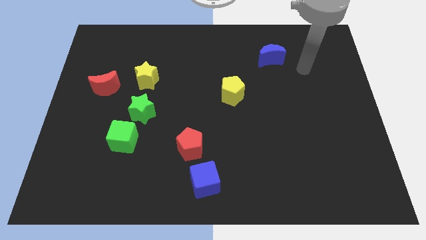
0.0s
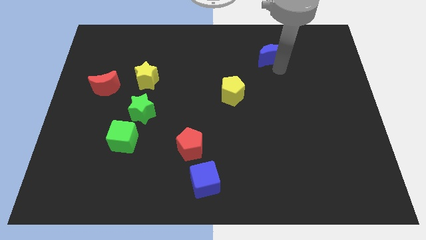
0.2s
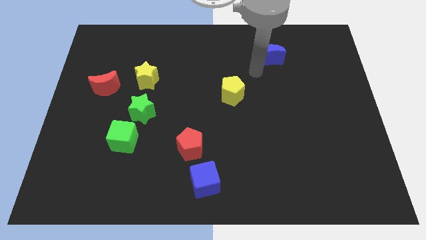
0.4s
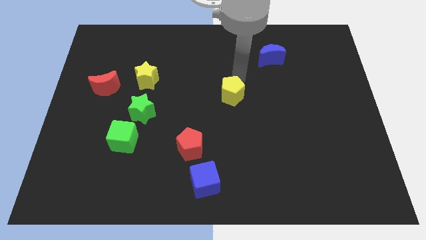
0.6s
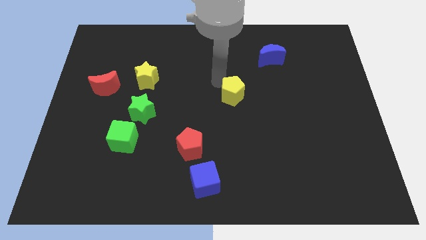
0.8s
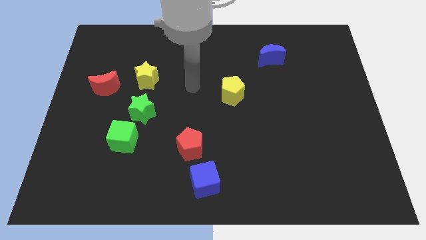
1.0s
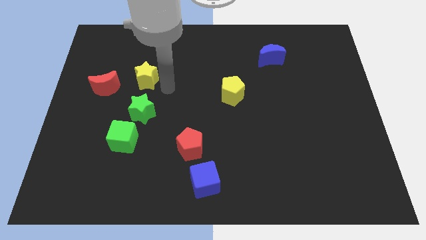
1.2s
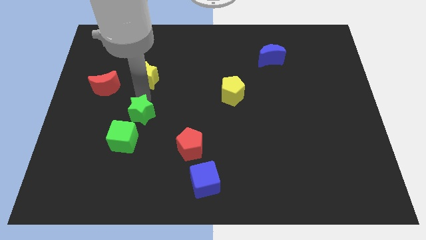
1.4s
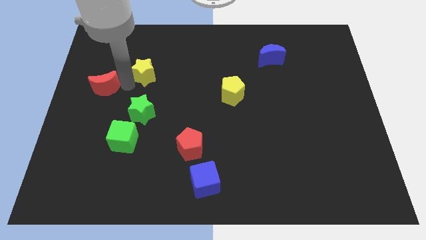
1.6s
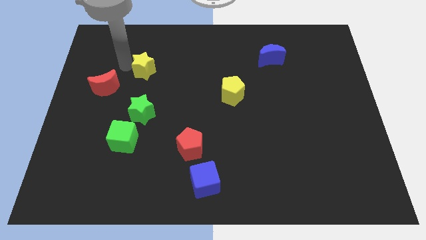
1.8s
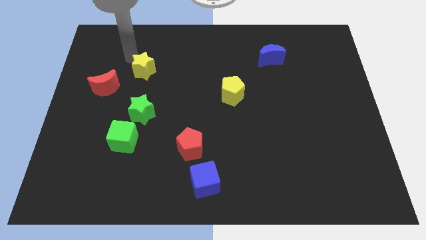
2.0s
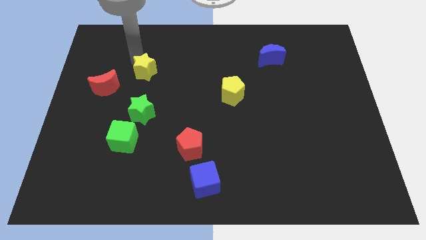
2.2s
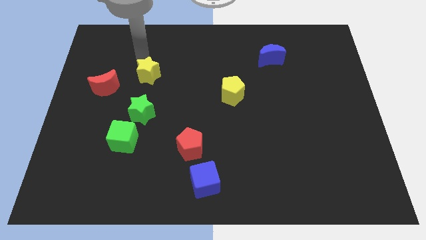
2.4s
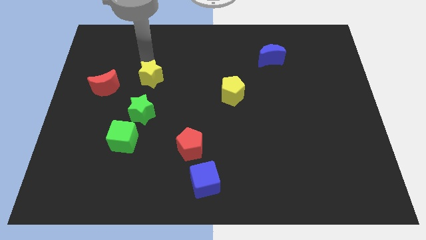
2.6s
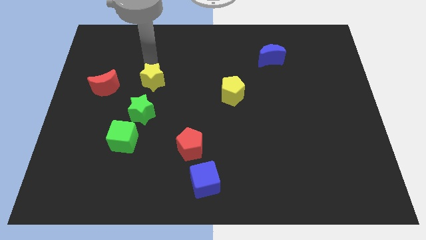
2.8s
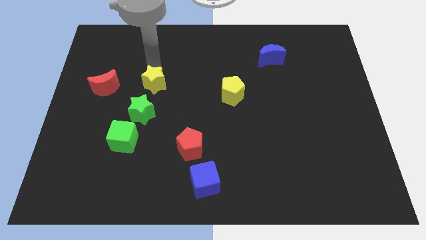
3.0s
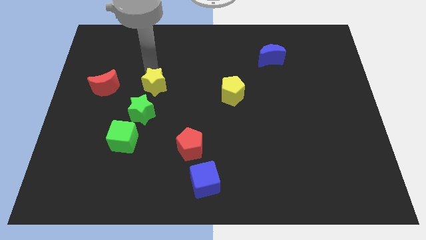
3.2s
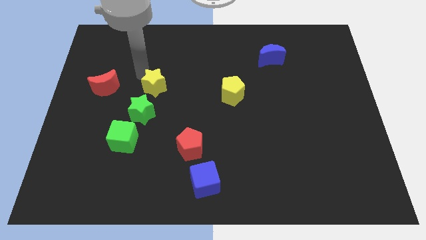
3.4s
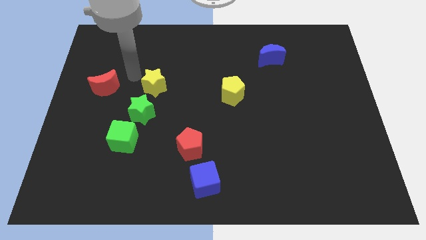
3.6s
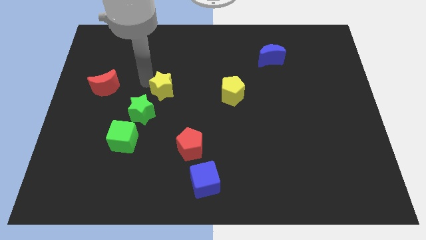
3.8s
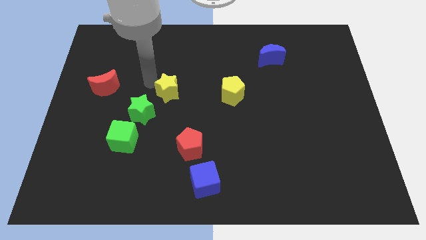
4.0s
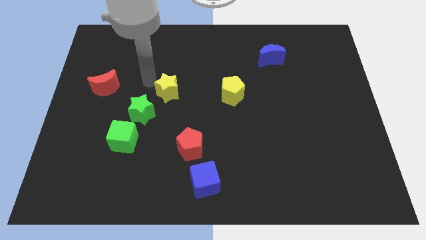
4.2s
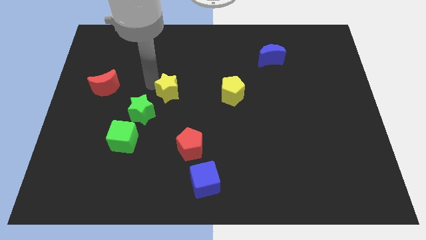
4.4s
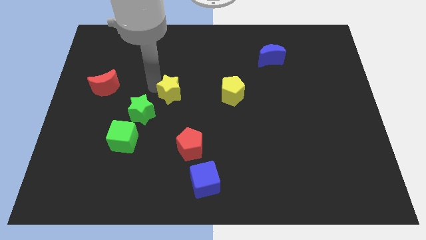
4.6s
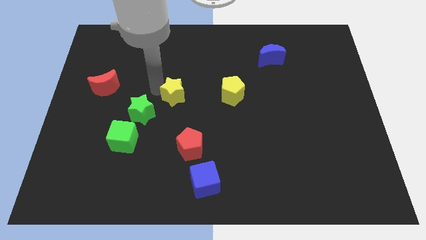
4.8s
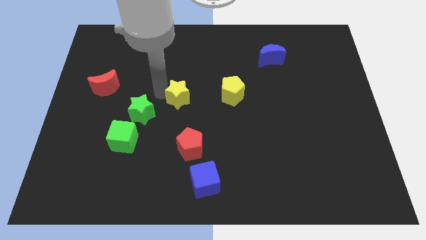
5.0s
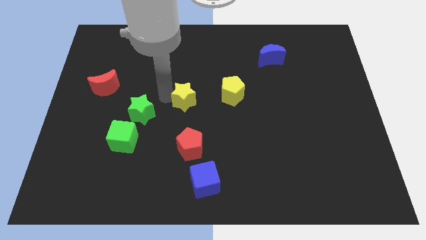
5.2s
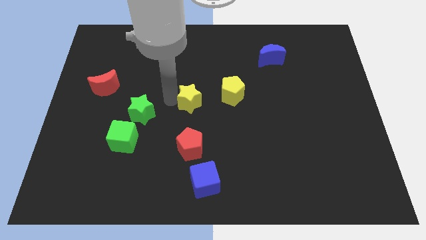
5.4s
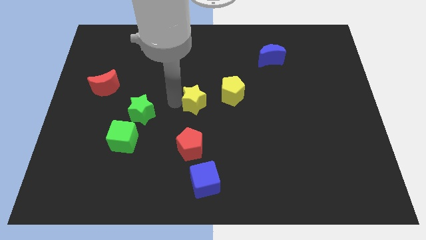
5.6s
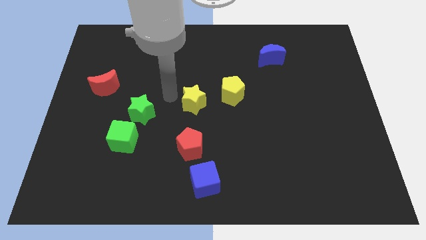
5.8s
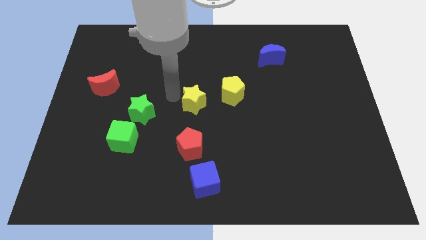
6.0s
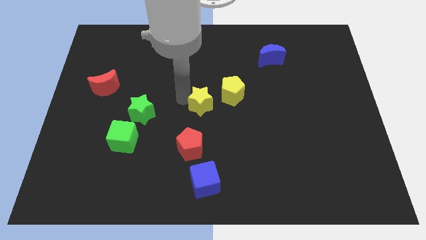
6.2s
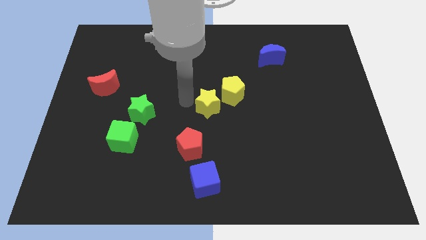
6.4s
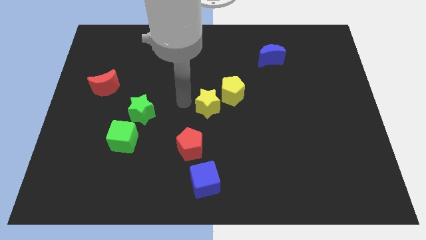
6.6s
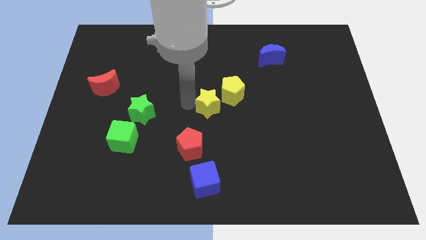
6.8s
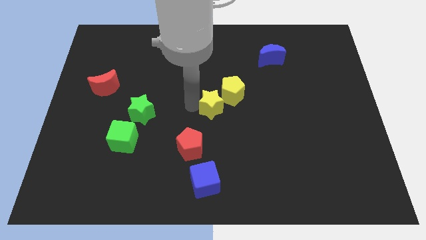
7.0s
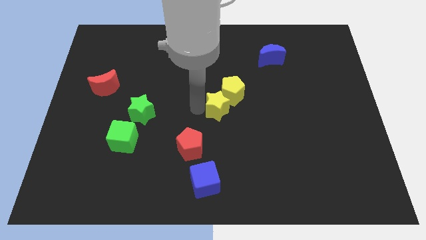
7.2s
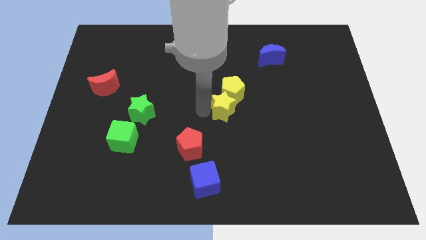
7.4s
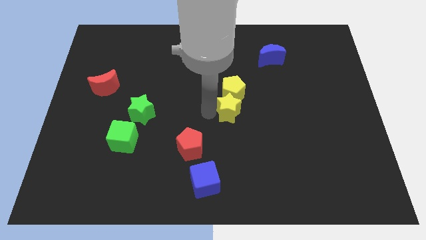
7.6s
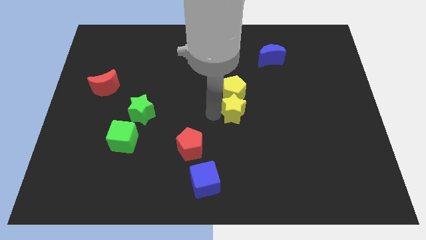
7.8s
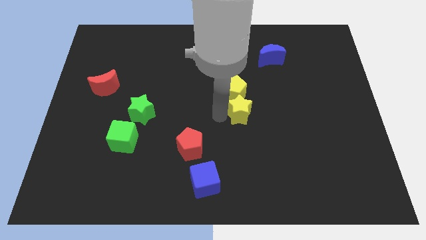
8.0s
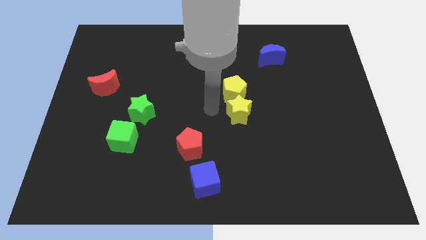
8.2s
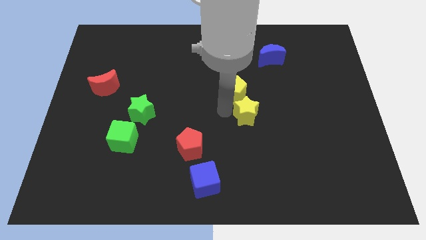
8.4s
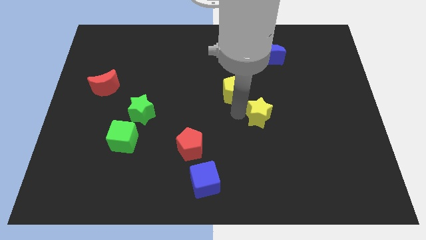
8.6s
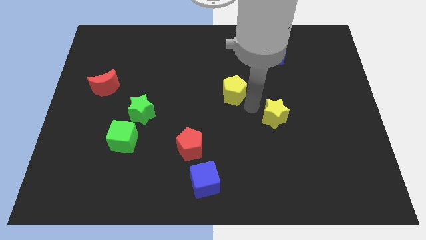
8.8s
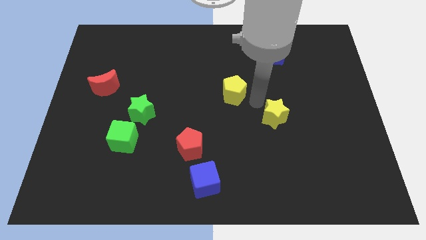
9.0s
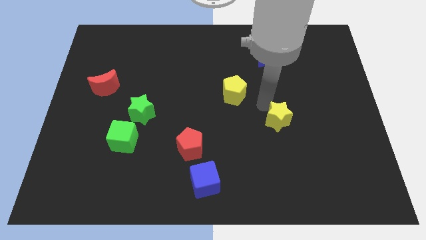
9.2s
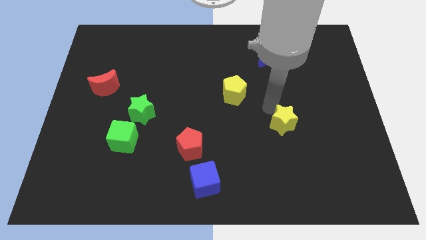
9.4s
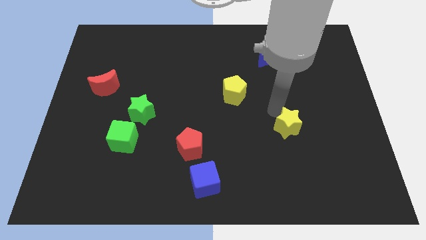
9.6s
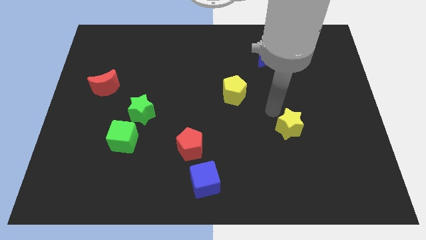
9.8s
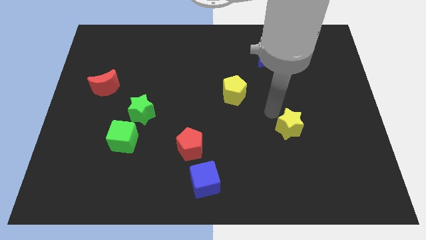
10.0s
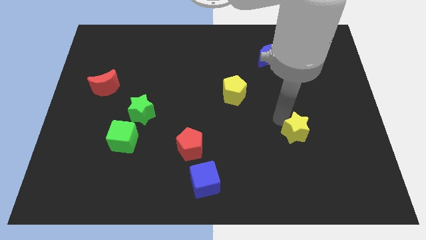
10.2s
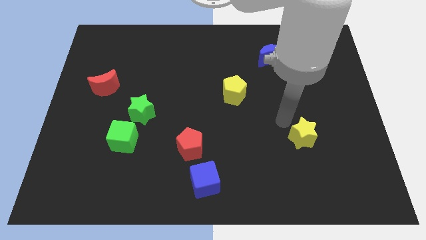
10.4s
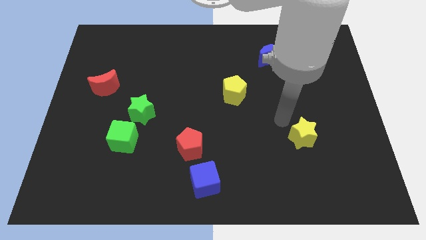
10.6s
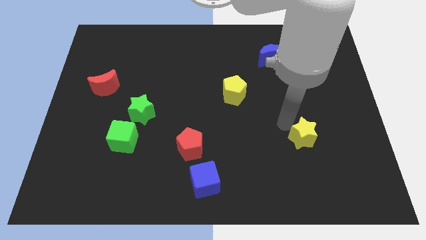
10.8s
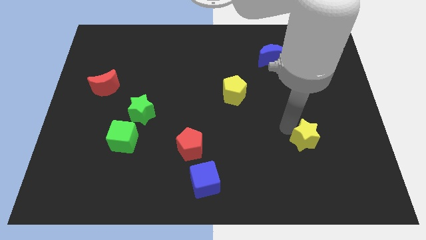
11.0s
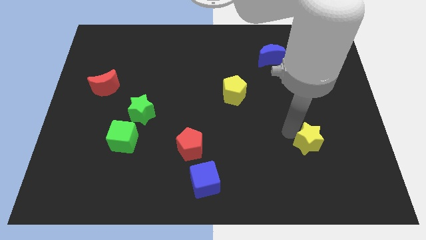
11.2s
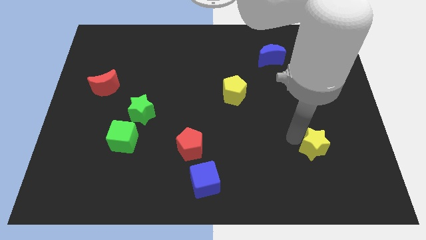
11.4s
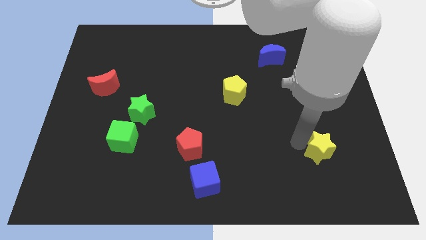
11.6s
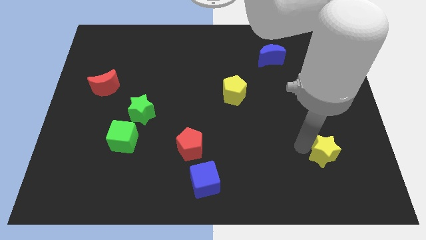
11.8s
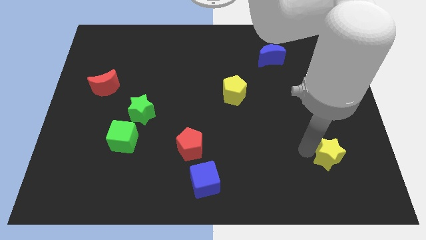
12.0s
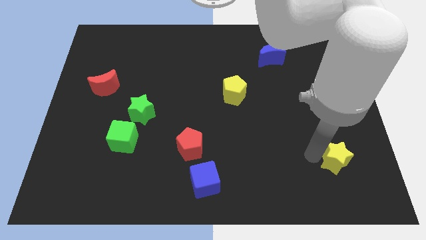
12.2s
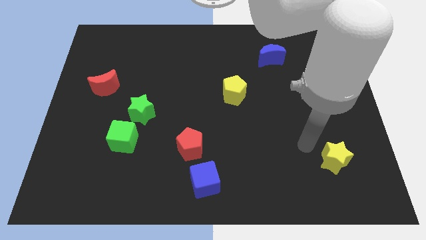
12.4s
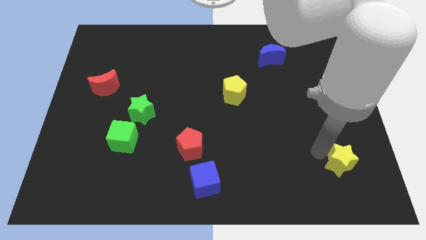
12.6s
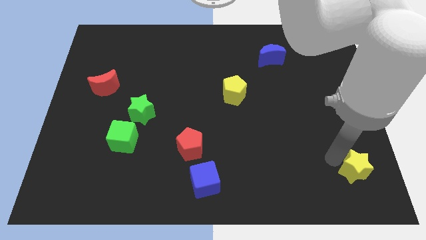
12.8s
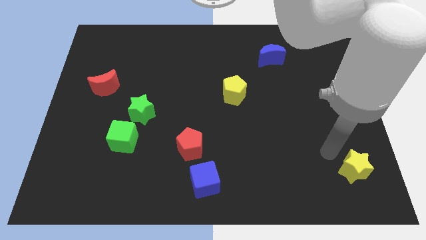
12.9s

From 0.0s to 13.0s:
push the yellow star to the lower right corner
